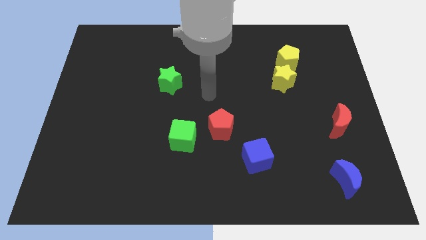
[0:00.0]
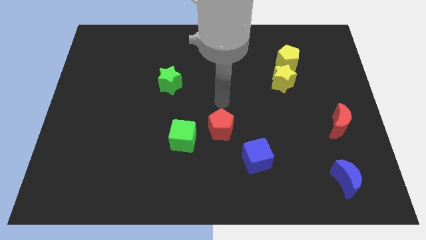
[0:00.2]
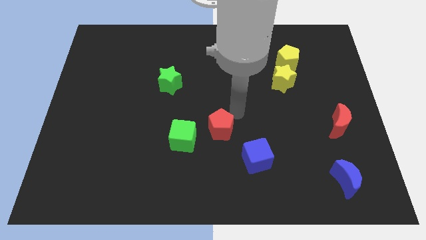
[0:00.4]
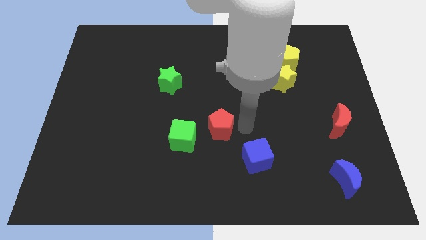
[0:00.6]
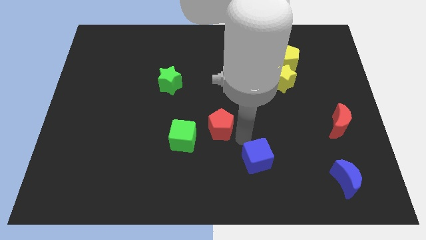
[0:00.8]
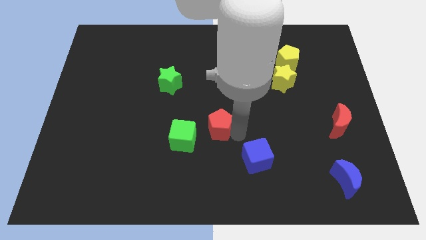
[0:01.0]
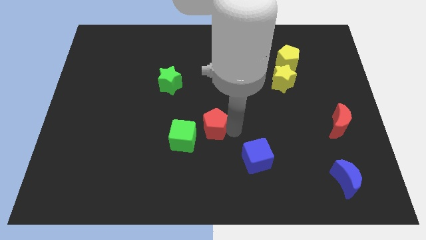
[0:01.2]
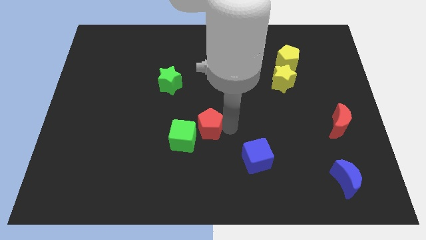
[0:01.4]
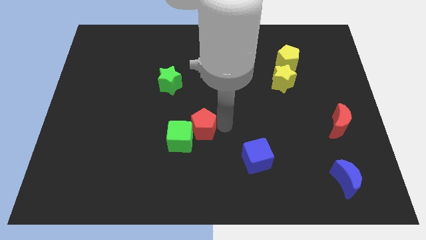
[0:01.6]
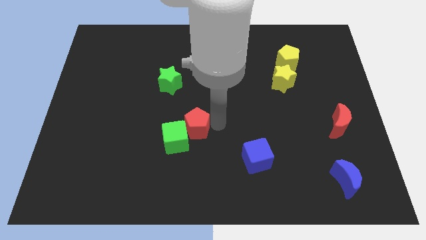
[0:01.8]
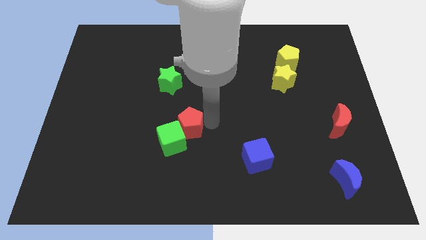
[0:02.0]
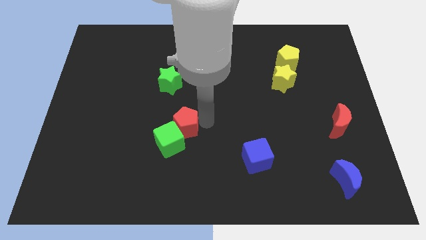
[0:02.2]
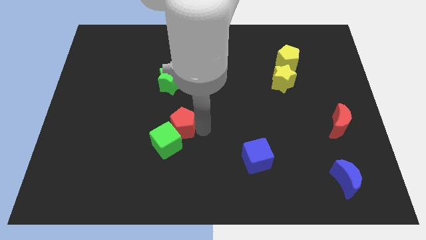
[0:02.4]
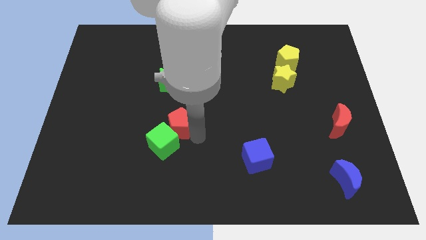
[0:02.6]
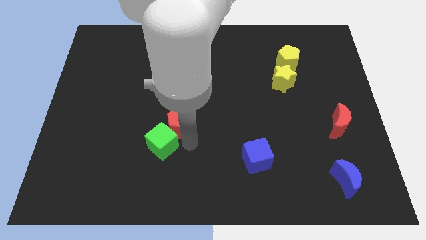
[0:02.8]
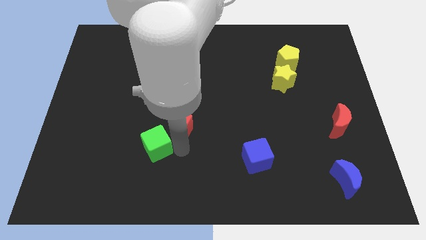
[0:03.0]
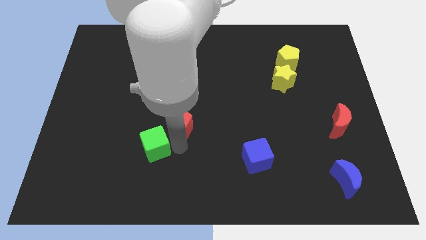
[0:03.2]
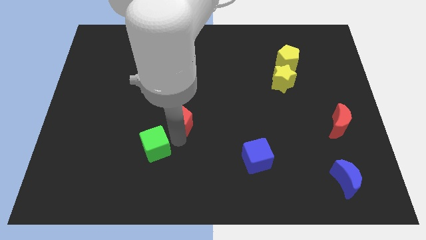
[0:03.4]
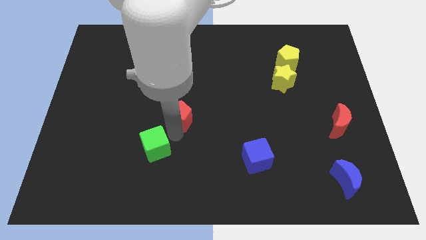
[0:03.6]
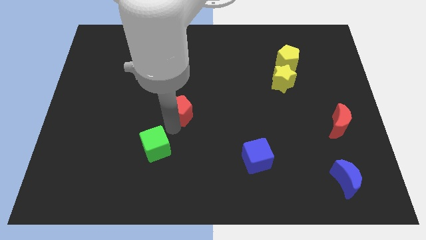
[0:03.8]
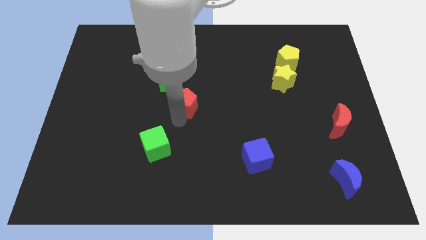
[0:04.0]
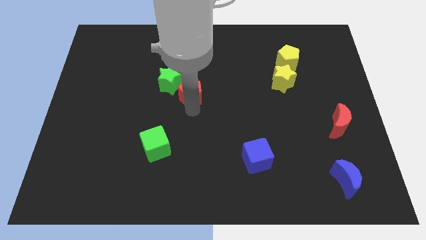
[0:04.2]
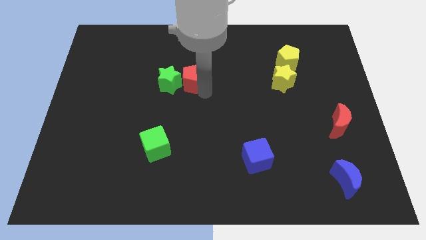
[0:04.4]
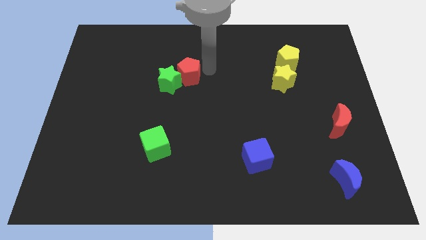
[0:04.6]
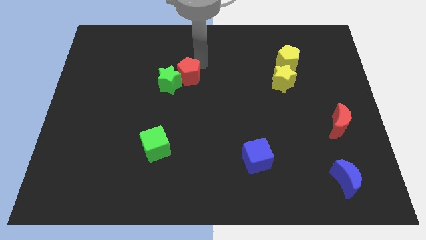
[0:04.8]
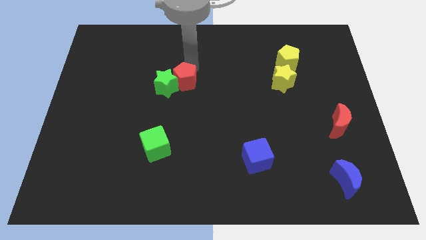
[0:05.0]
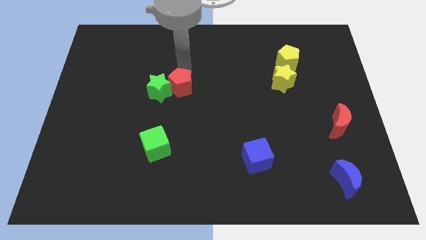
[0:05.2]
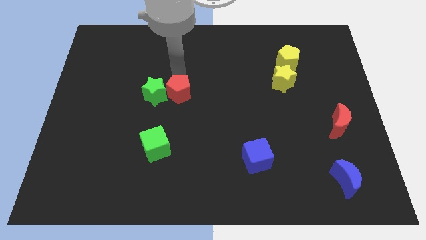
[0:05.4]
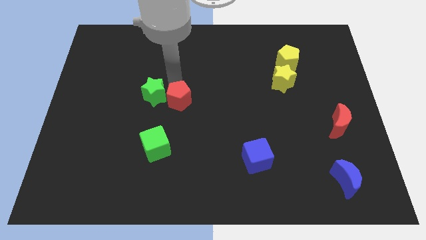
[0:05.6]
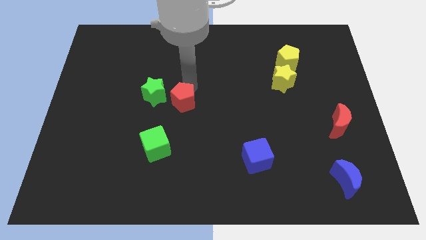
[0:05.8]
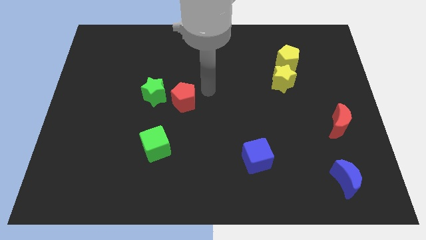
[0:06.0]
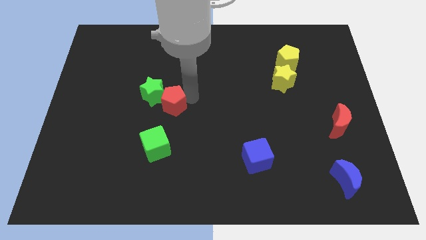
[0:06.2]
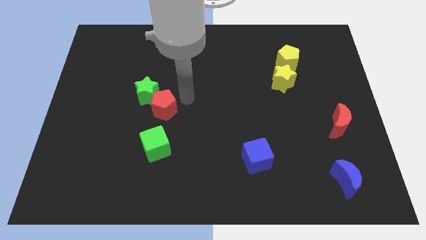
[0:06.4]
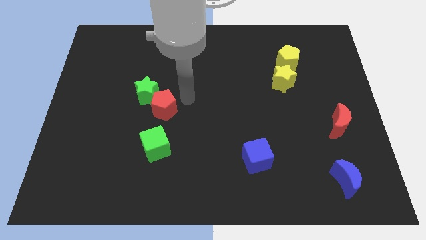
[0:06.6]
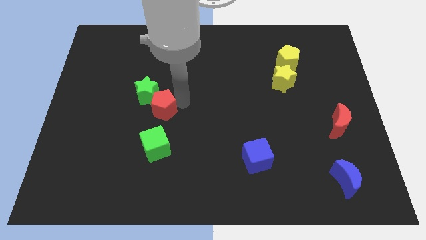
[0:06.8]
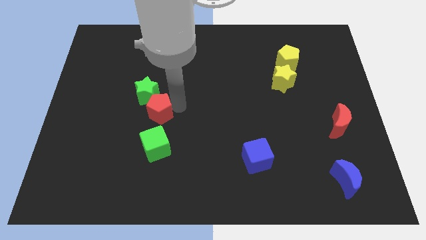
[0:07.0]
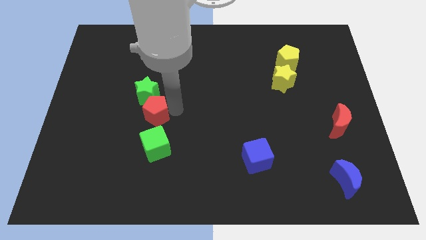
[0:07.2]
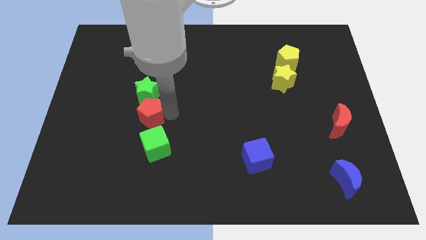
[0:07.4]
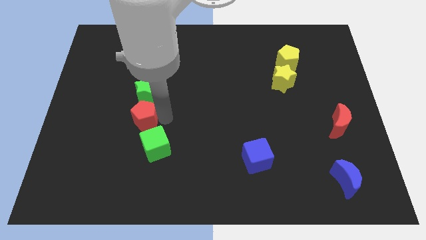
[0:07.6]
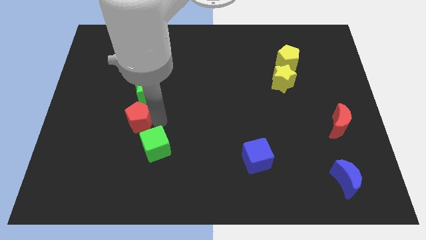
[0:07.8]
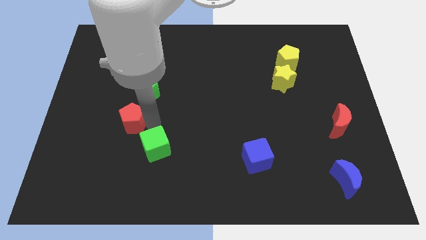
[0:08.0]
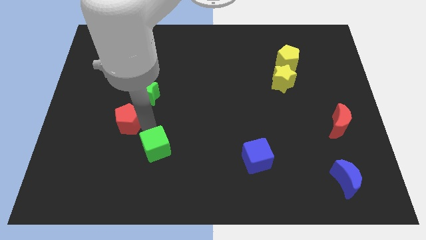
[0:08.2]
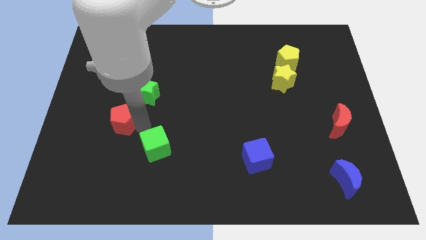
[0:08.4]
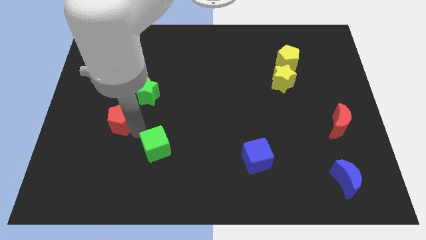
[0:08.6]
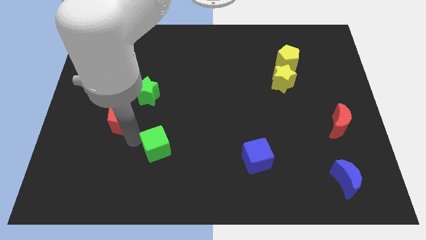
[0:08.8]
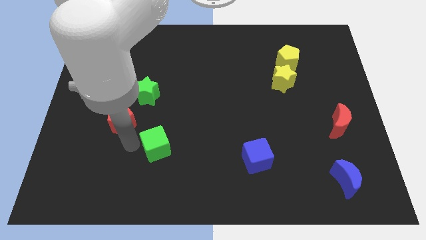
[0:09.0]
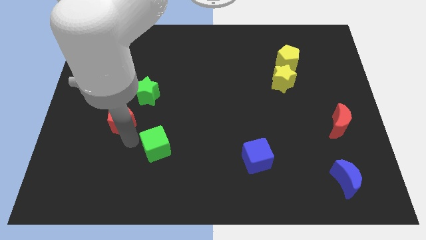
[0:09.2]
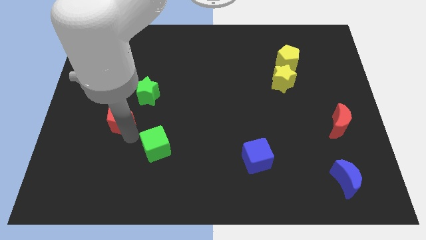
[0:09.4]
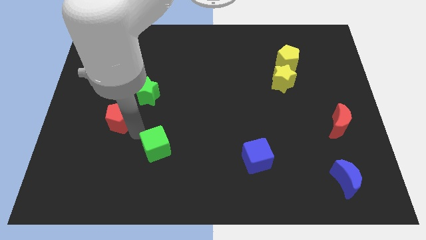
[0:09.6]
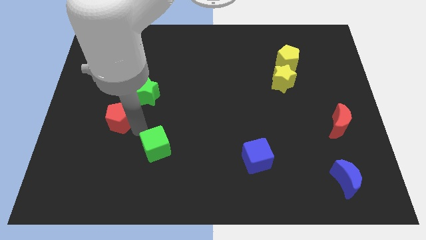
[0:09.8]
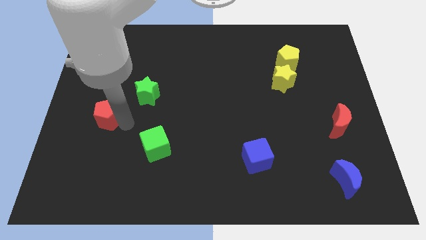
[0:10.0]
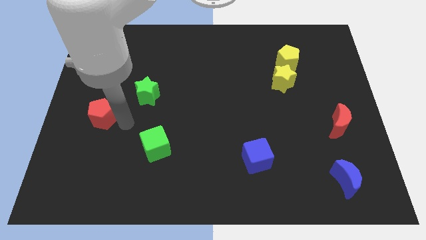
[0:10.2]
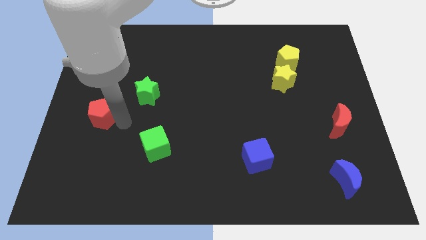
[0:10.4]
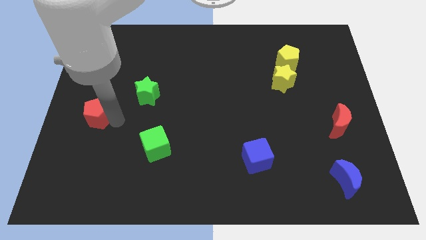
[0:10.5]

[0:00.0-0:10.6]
move the red pentagon to the left side of the board

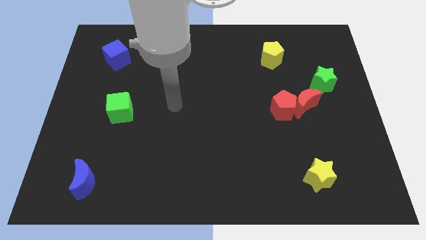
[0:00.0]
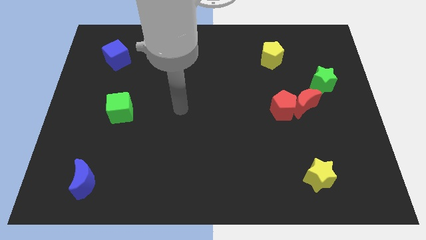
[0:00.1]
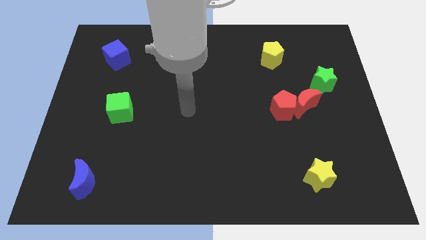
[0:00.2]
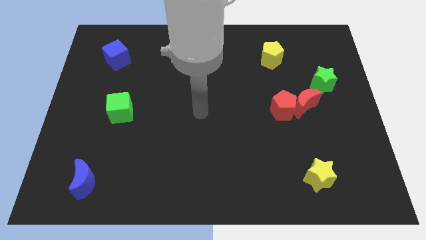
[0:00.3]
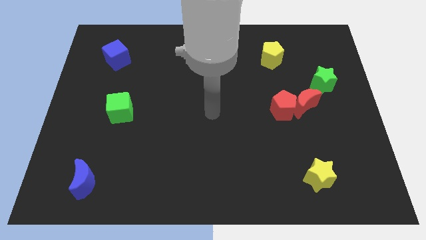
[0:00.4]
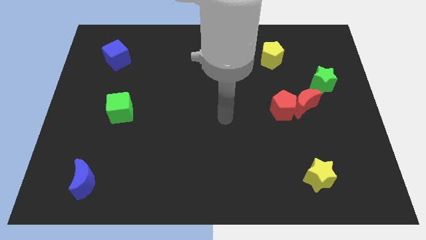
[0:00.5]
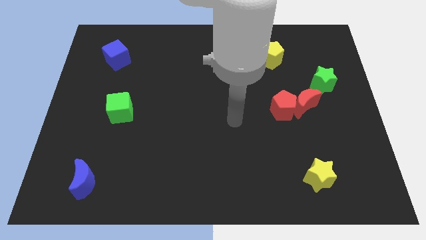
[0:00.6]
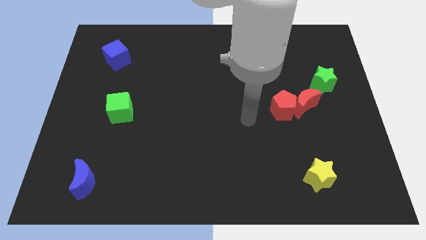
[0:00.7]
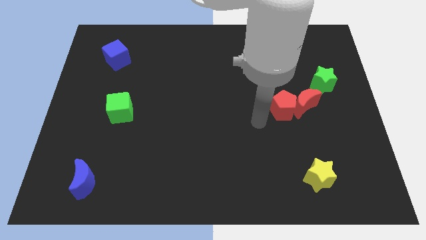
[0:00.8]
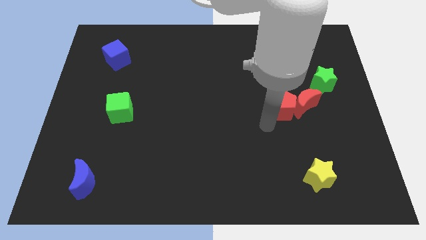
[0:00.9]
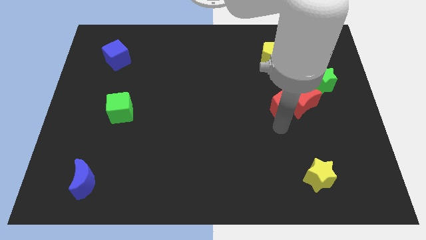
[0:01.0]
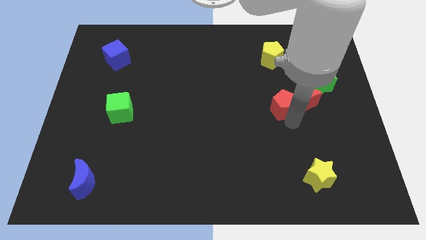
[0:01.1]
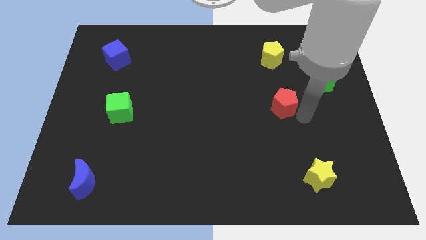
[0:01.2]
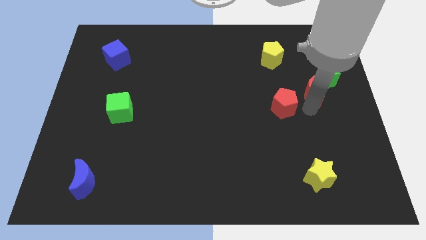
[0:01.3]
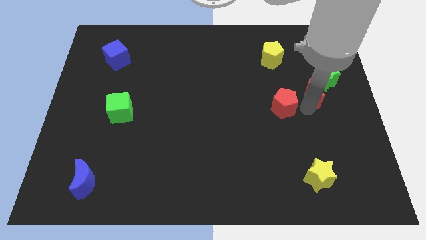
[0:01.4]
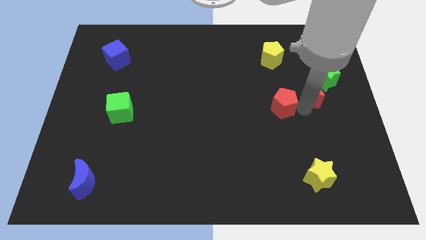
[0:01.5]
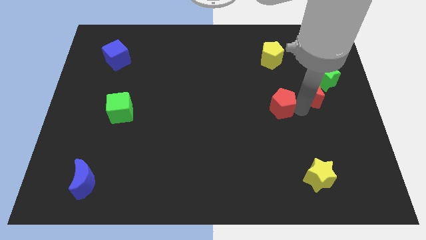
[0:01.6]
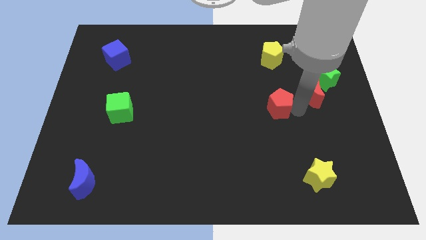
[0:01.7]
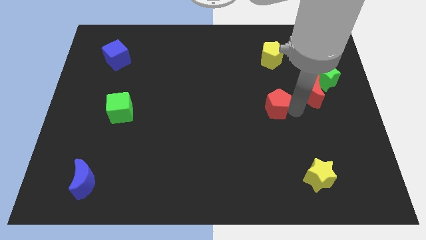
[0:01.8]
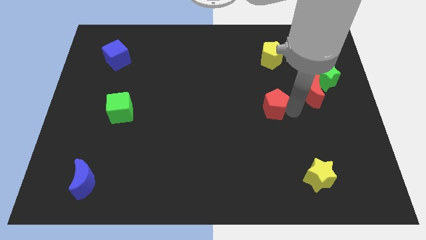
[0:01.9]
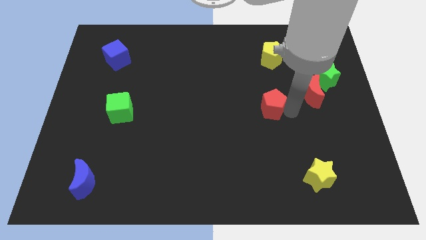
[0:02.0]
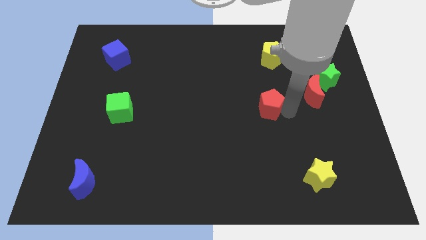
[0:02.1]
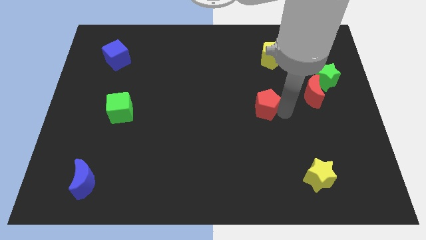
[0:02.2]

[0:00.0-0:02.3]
put the red pentagon to the middle
